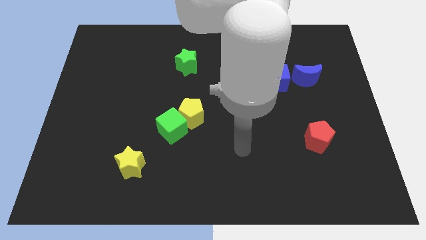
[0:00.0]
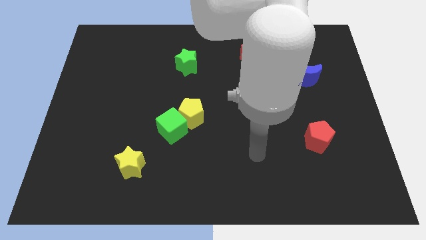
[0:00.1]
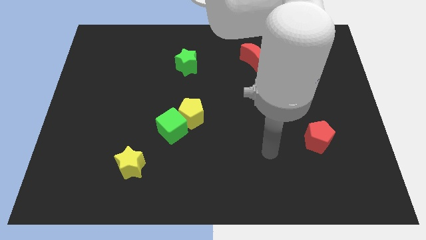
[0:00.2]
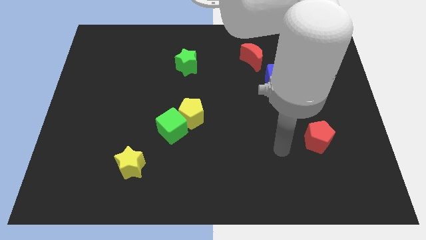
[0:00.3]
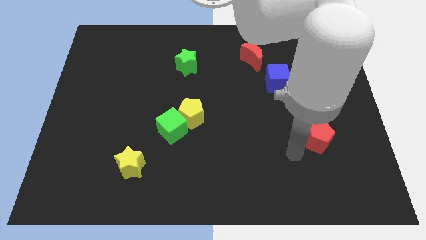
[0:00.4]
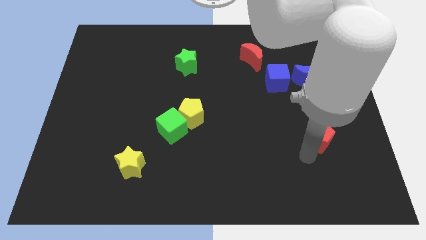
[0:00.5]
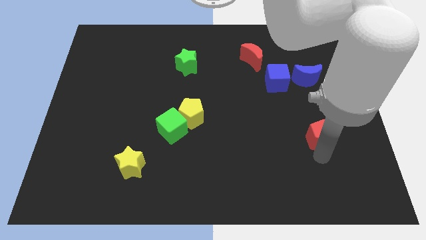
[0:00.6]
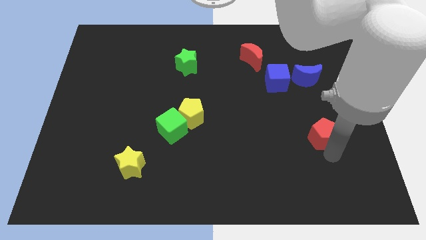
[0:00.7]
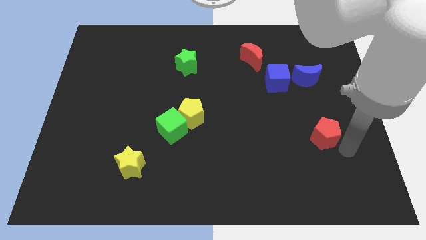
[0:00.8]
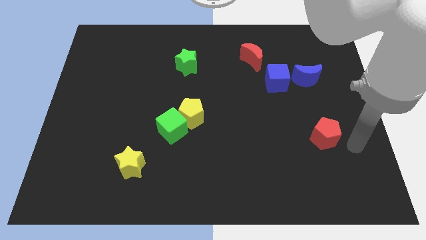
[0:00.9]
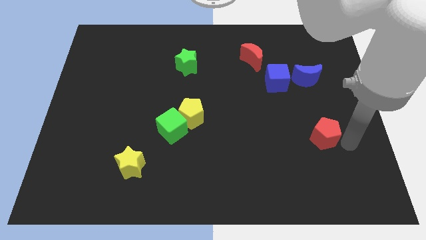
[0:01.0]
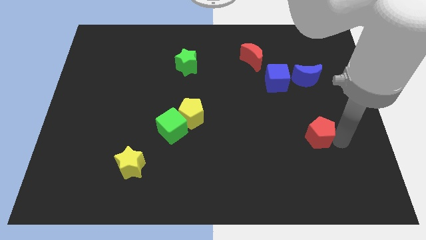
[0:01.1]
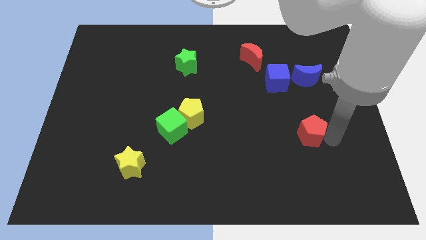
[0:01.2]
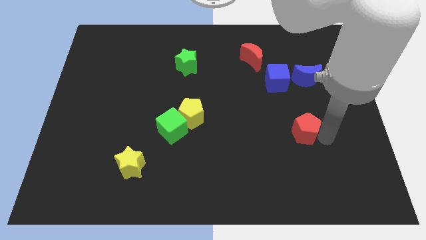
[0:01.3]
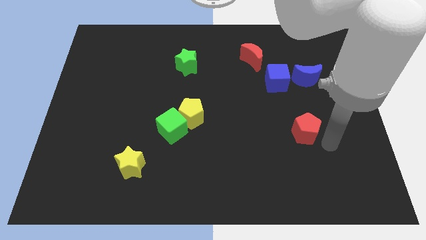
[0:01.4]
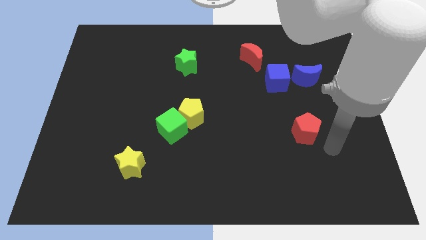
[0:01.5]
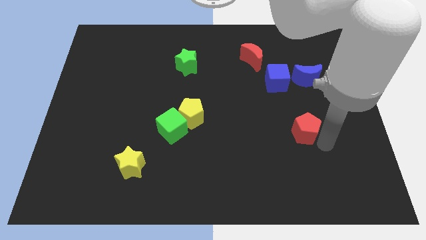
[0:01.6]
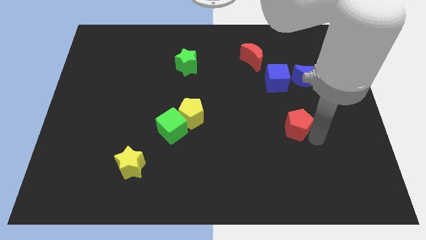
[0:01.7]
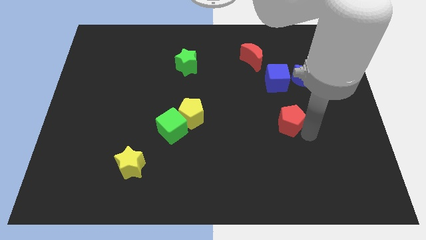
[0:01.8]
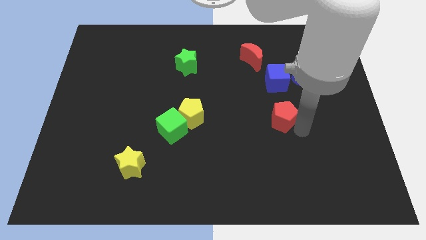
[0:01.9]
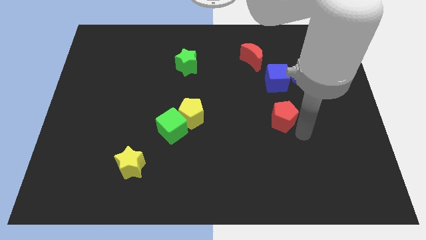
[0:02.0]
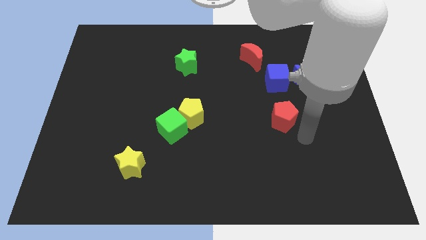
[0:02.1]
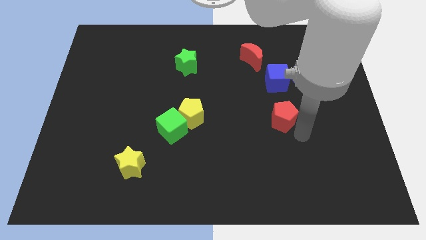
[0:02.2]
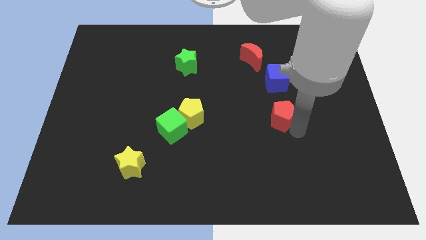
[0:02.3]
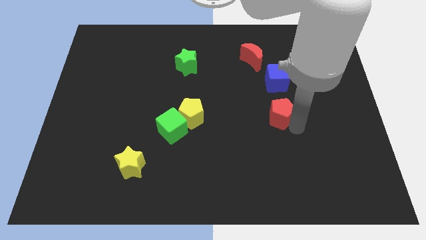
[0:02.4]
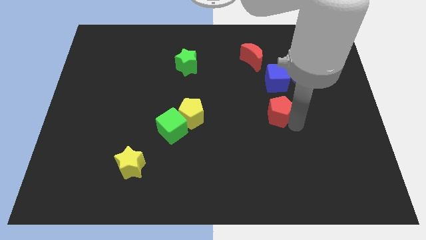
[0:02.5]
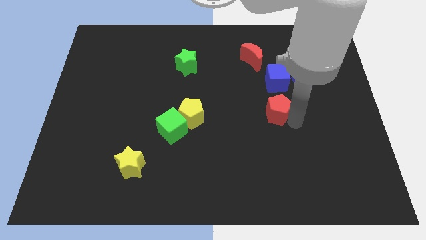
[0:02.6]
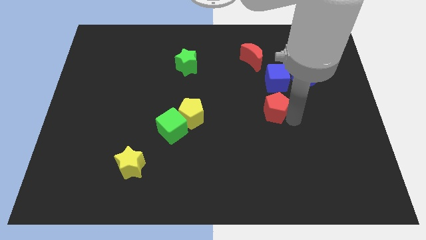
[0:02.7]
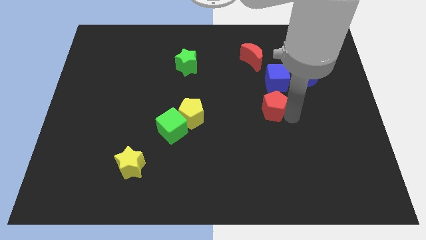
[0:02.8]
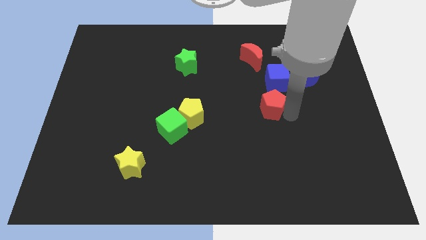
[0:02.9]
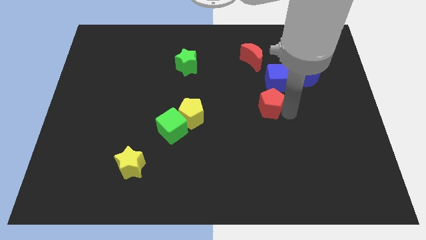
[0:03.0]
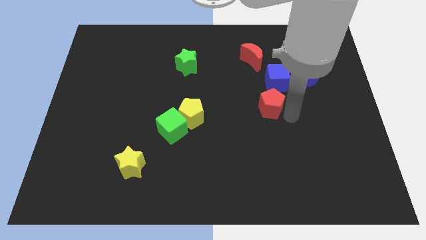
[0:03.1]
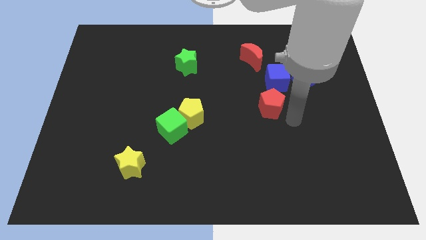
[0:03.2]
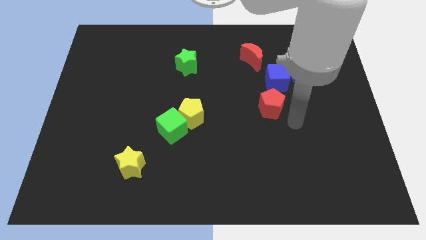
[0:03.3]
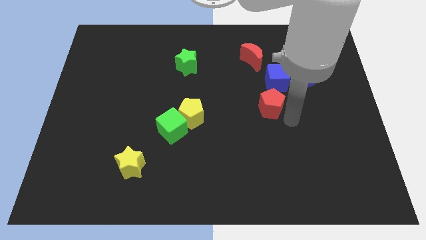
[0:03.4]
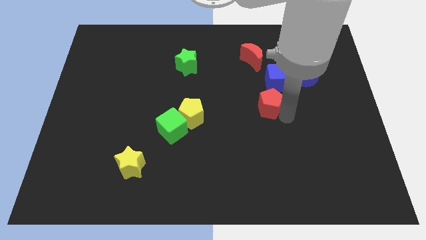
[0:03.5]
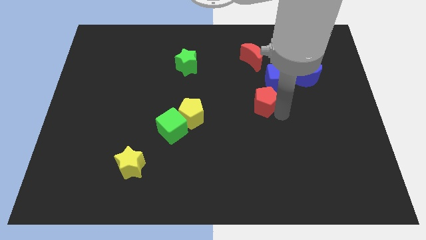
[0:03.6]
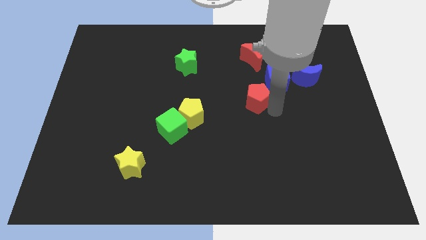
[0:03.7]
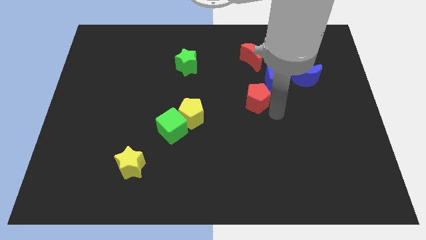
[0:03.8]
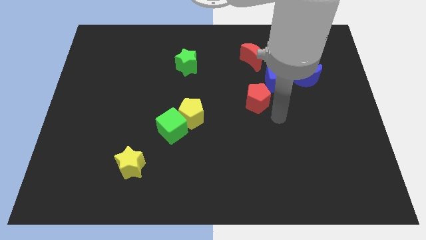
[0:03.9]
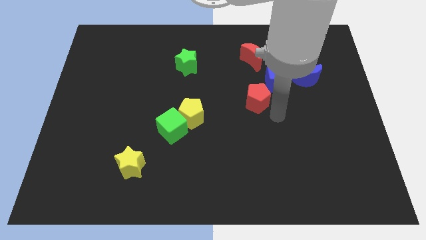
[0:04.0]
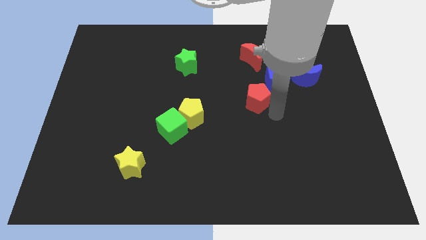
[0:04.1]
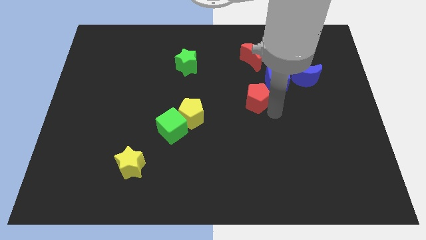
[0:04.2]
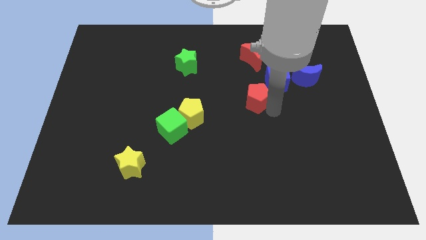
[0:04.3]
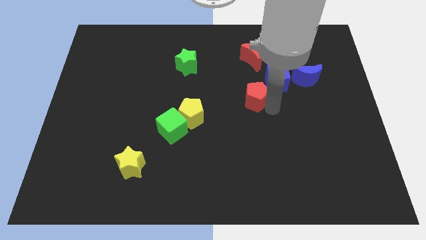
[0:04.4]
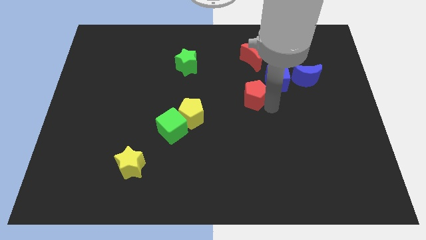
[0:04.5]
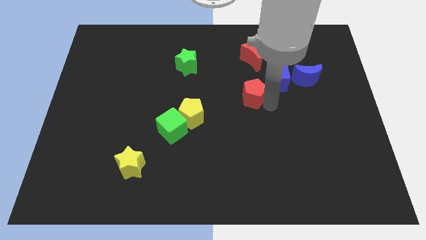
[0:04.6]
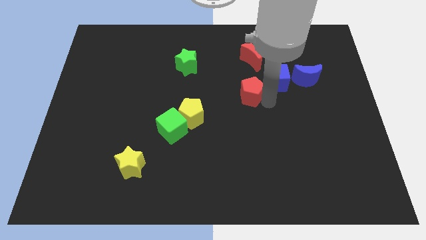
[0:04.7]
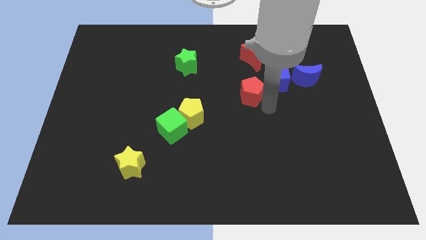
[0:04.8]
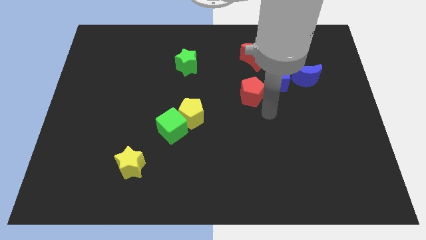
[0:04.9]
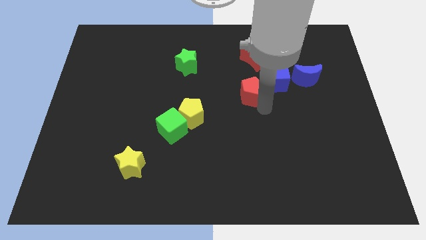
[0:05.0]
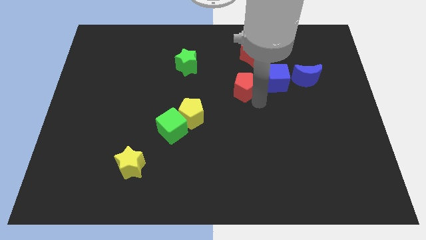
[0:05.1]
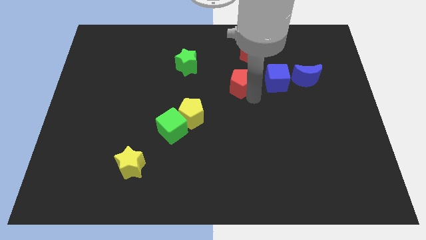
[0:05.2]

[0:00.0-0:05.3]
push the red pentagon to the bottom left of the red moon

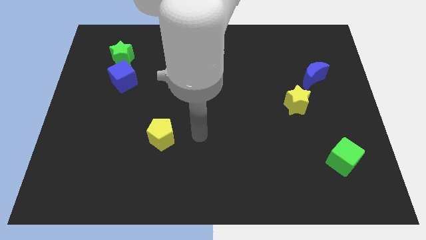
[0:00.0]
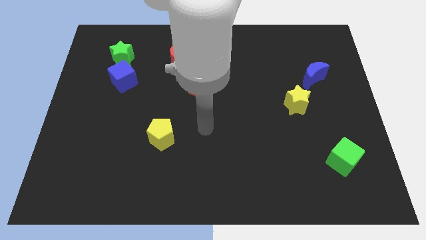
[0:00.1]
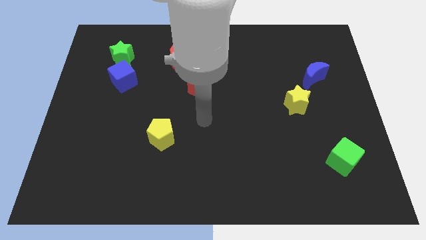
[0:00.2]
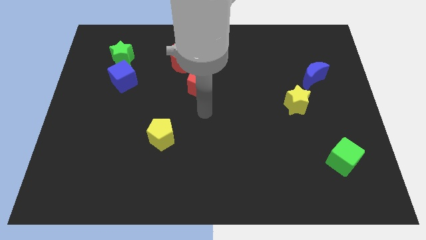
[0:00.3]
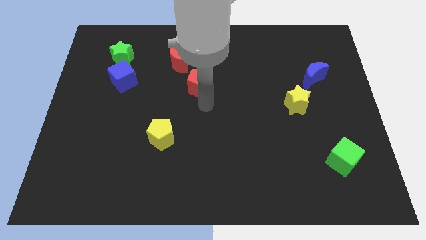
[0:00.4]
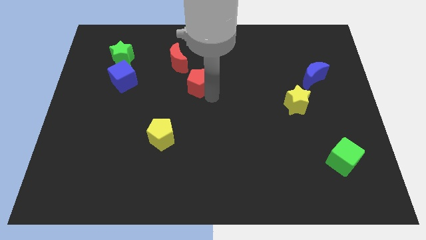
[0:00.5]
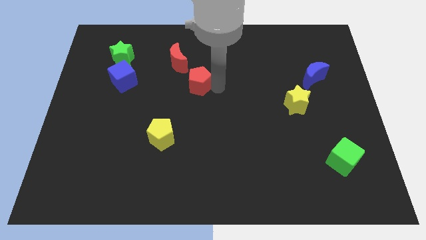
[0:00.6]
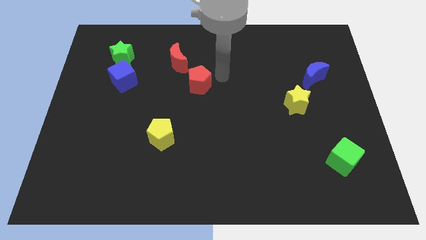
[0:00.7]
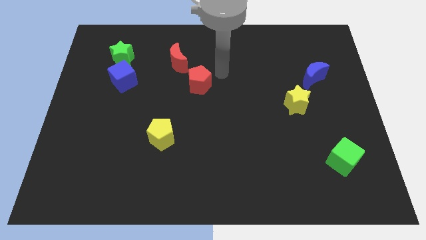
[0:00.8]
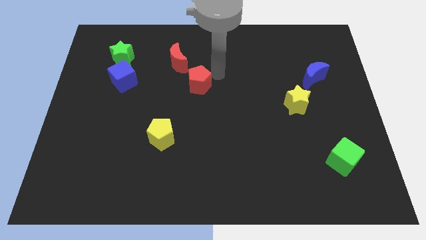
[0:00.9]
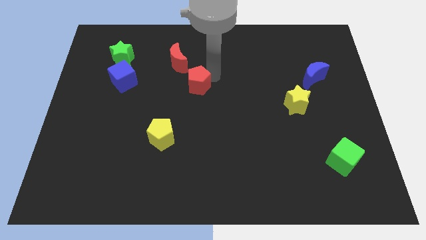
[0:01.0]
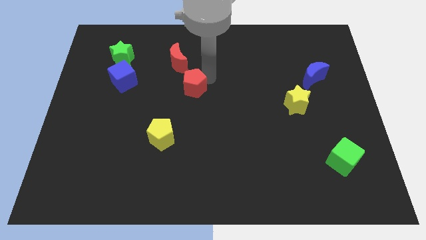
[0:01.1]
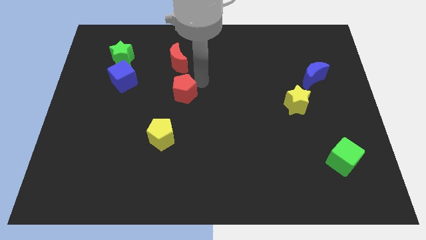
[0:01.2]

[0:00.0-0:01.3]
move the red pentagon to the top of the yellow pentagon

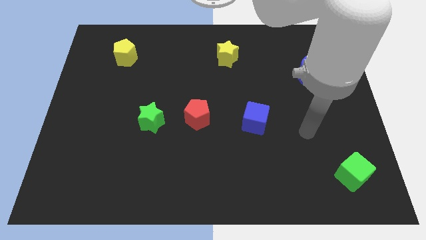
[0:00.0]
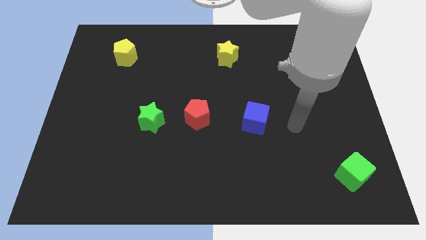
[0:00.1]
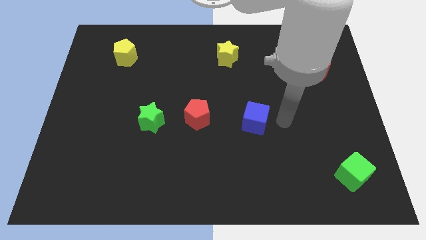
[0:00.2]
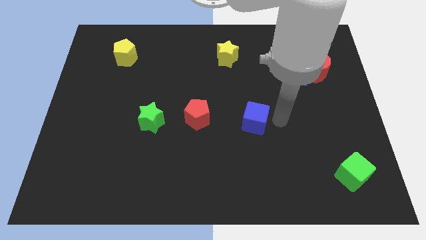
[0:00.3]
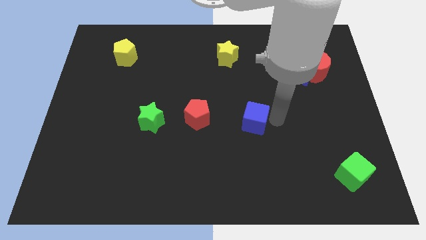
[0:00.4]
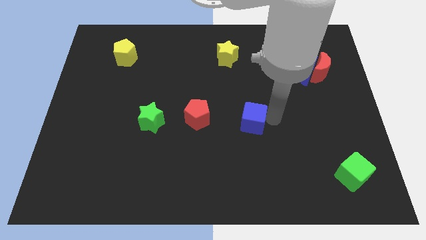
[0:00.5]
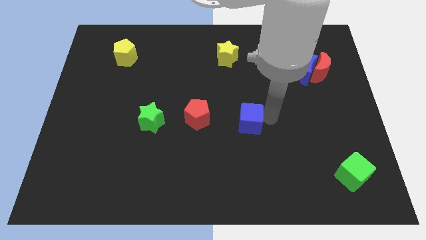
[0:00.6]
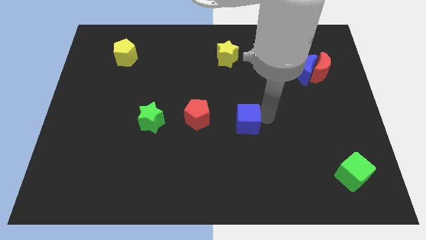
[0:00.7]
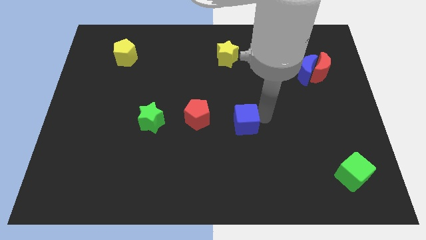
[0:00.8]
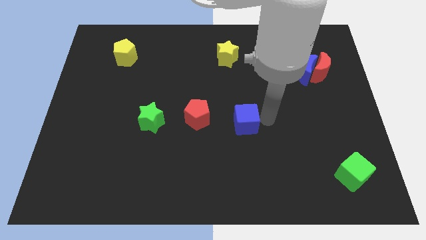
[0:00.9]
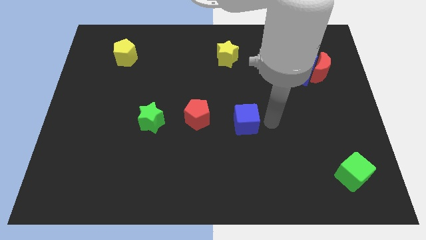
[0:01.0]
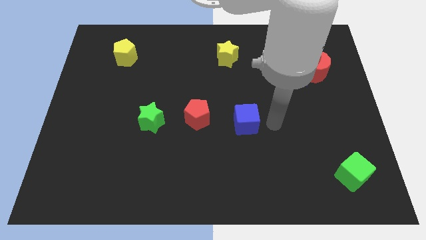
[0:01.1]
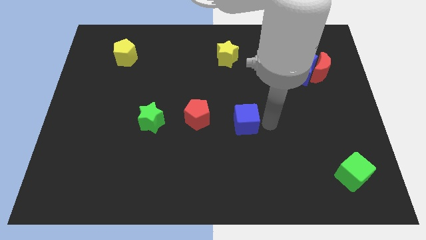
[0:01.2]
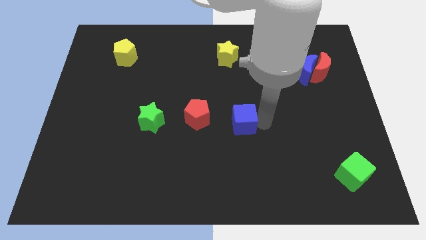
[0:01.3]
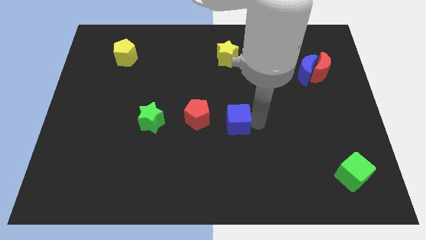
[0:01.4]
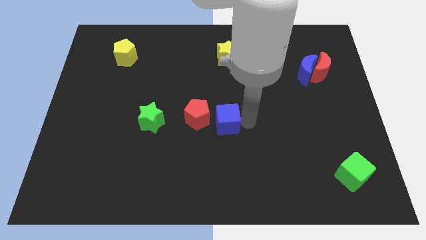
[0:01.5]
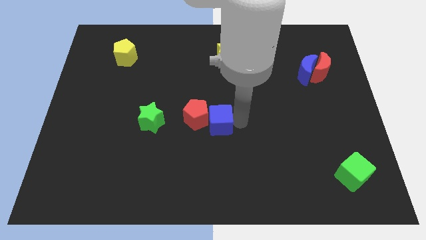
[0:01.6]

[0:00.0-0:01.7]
slide the blue cube right of the green star
